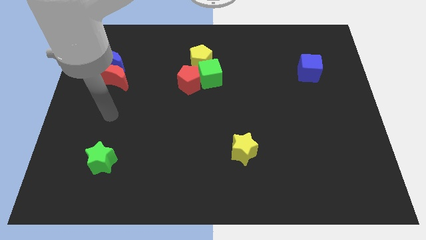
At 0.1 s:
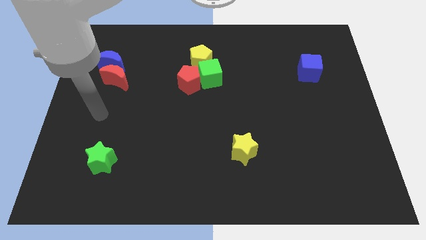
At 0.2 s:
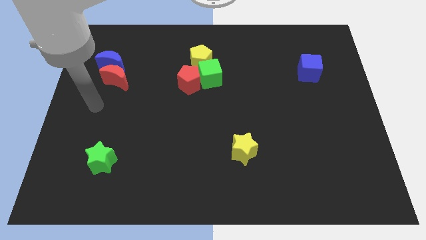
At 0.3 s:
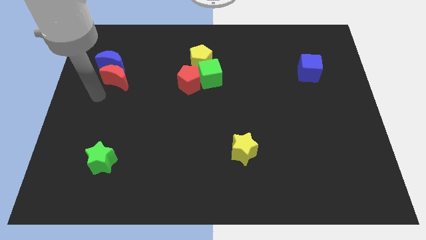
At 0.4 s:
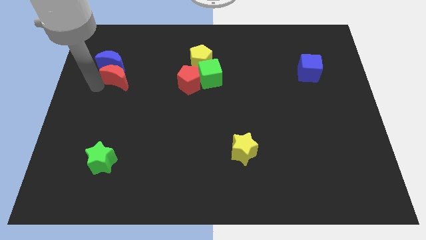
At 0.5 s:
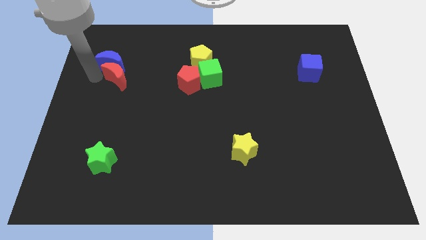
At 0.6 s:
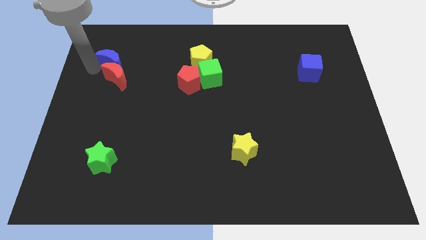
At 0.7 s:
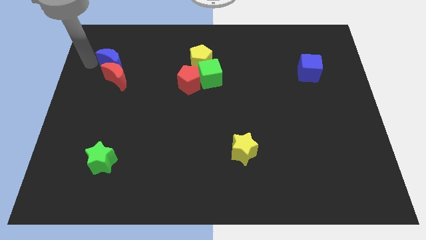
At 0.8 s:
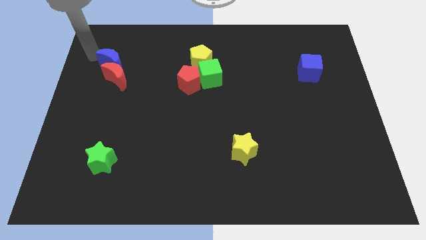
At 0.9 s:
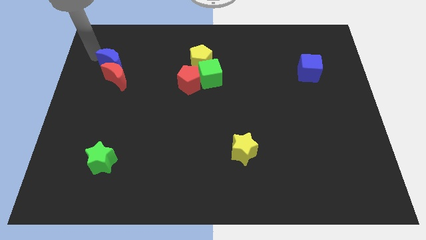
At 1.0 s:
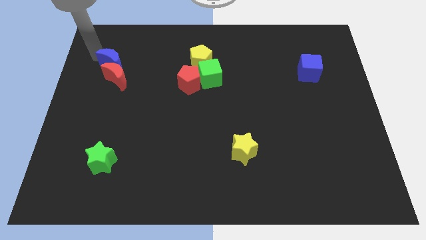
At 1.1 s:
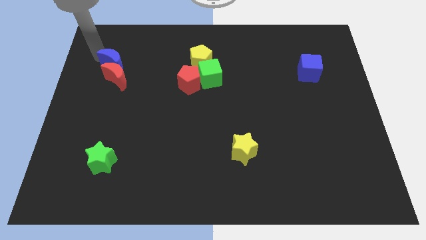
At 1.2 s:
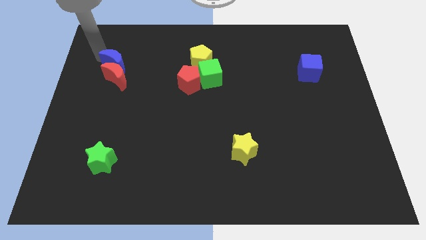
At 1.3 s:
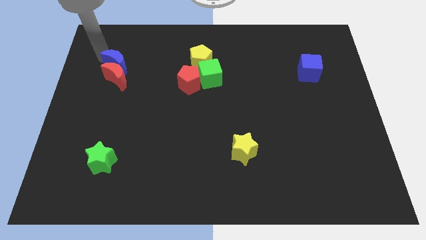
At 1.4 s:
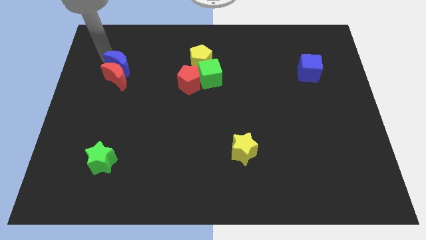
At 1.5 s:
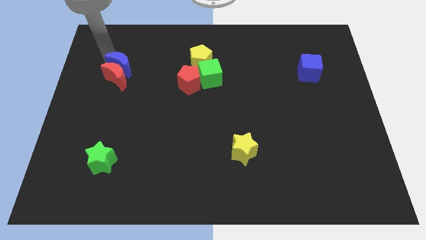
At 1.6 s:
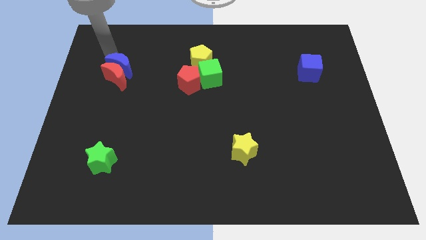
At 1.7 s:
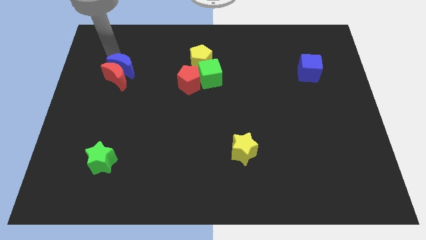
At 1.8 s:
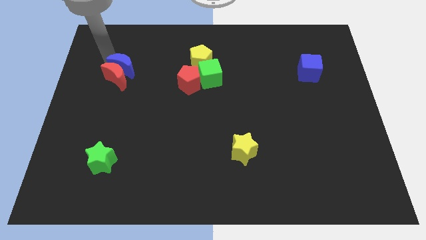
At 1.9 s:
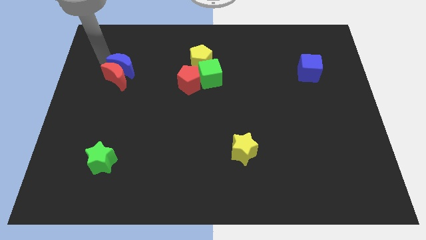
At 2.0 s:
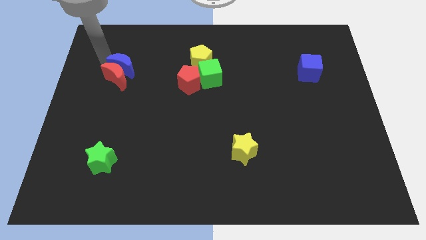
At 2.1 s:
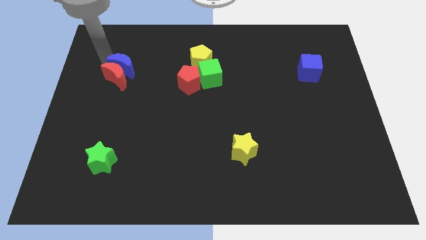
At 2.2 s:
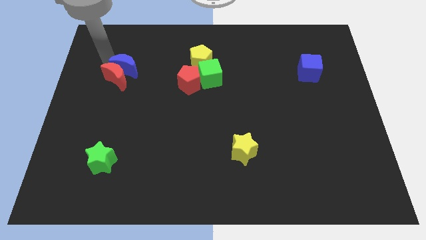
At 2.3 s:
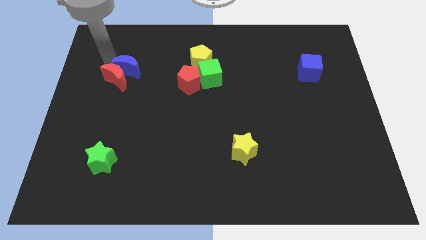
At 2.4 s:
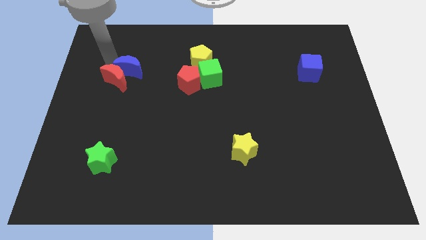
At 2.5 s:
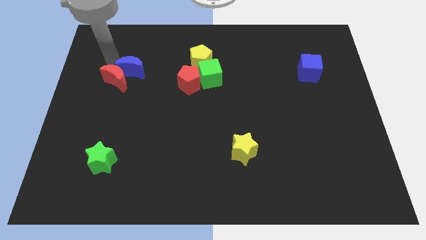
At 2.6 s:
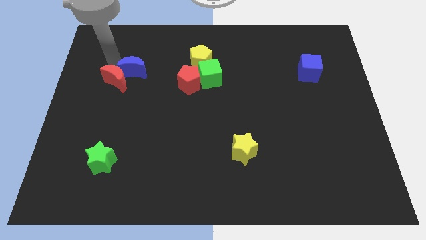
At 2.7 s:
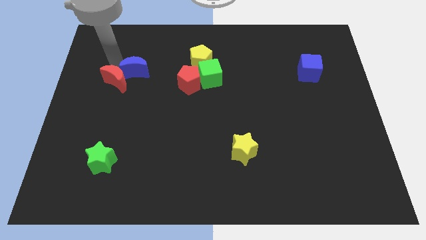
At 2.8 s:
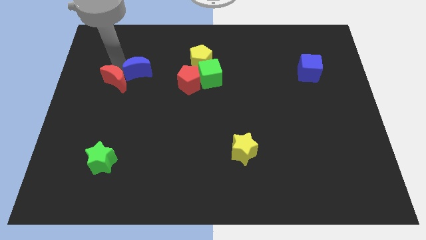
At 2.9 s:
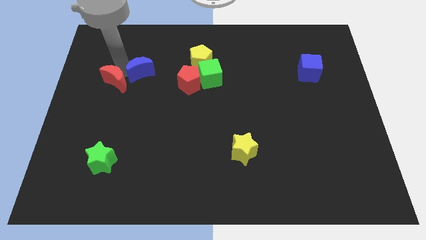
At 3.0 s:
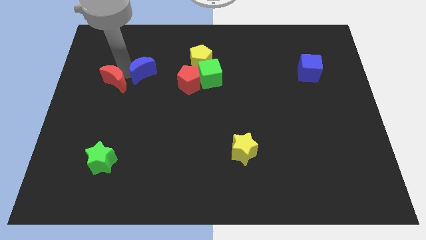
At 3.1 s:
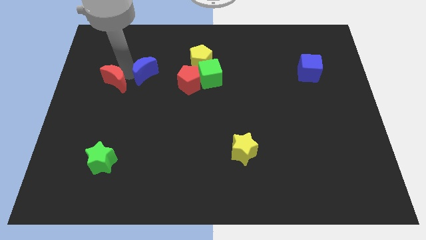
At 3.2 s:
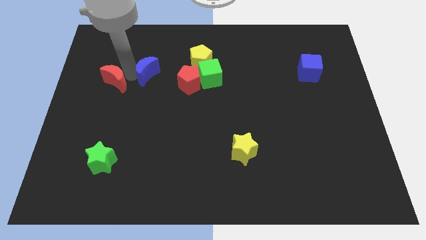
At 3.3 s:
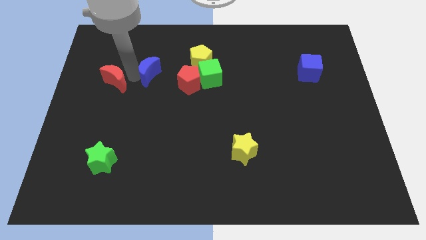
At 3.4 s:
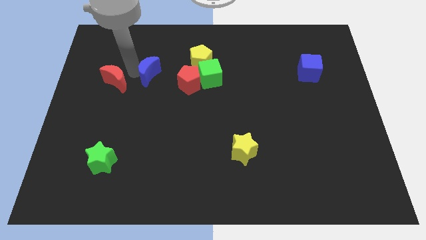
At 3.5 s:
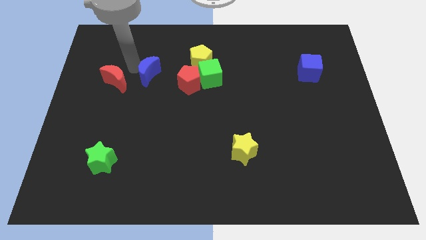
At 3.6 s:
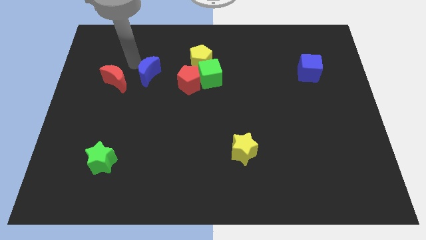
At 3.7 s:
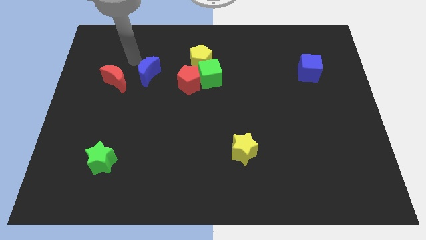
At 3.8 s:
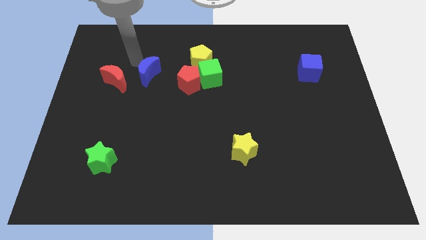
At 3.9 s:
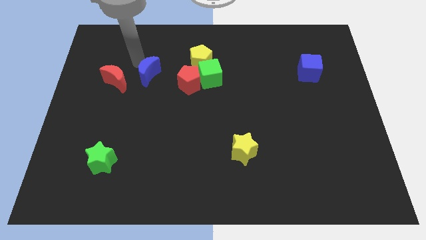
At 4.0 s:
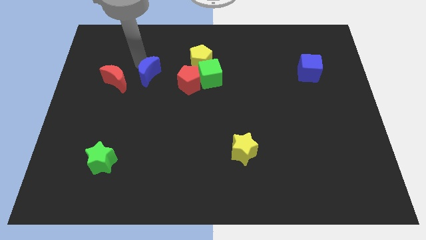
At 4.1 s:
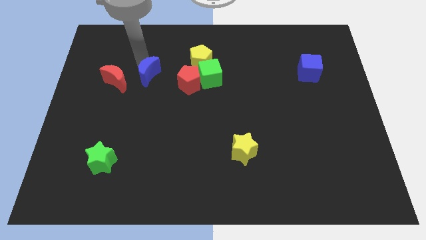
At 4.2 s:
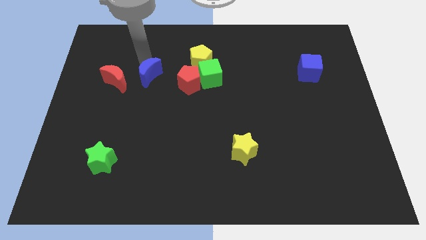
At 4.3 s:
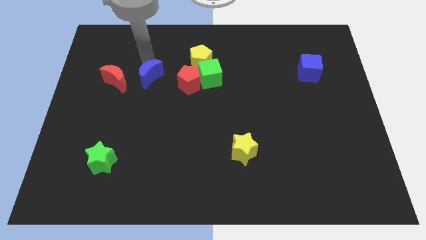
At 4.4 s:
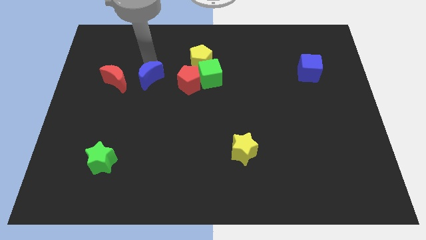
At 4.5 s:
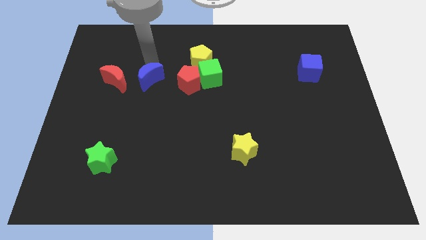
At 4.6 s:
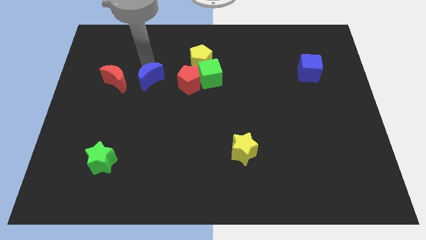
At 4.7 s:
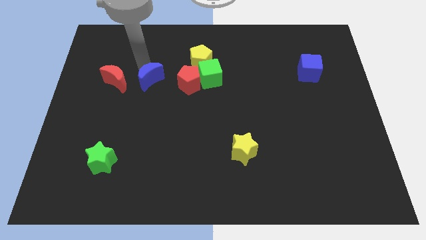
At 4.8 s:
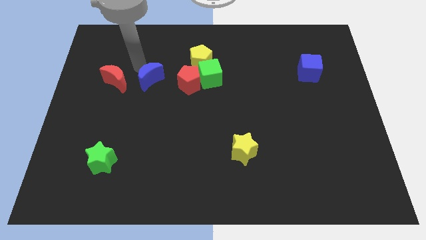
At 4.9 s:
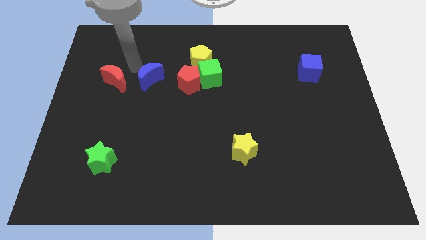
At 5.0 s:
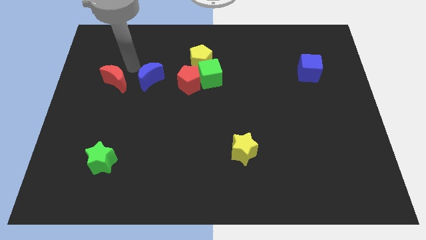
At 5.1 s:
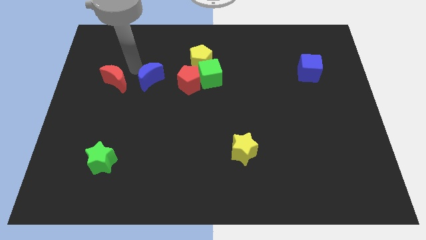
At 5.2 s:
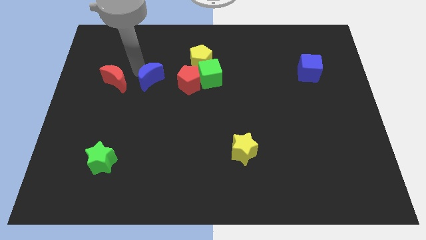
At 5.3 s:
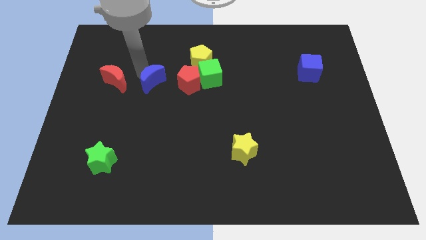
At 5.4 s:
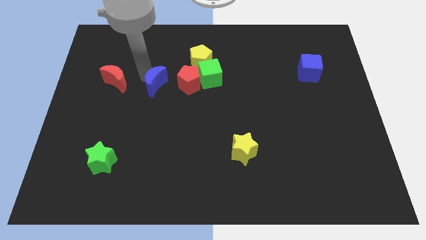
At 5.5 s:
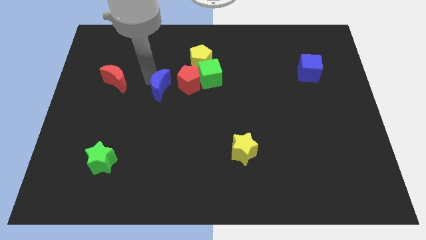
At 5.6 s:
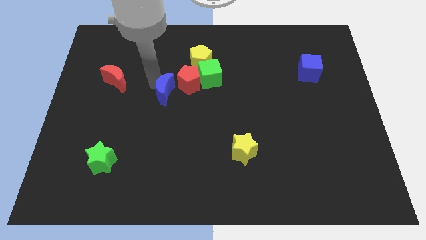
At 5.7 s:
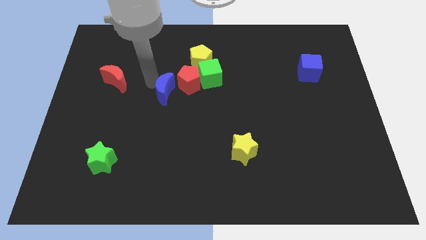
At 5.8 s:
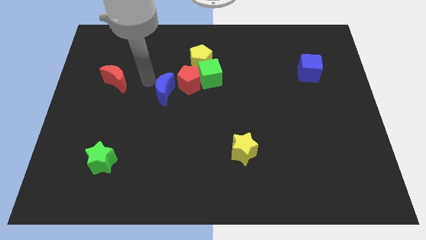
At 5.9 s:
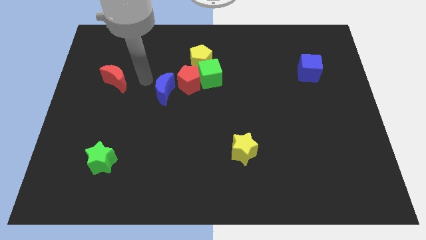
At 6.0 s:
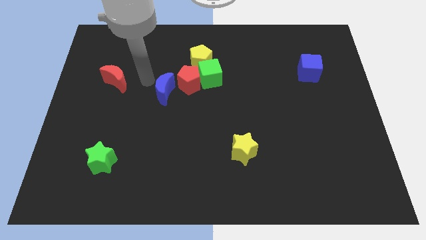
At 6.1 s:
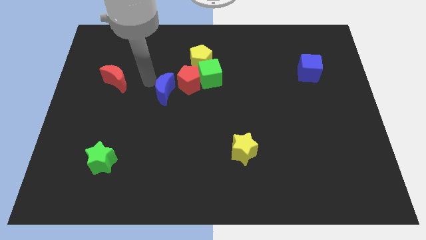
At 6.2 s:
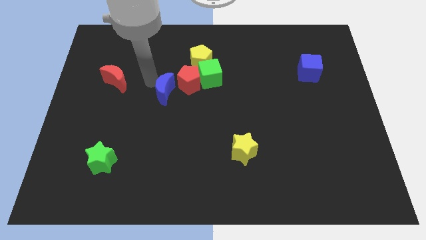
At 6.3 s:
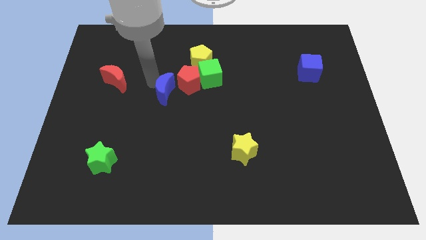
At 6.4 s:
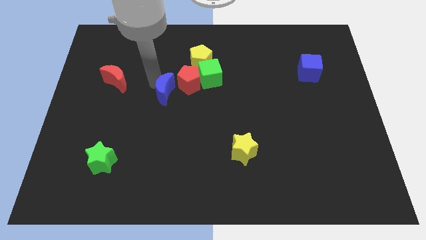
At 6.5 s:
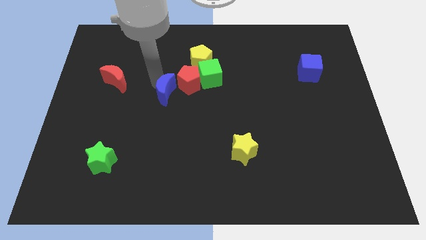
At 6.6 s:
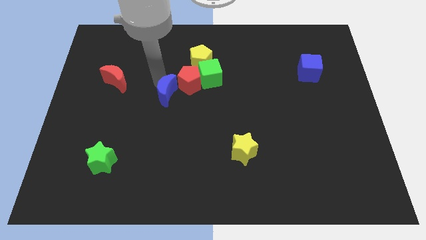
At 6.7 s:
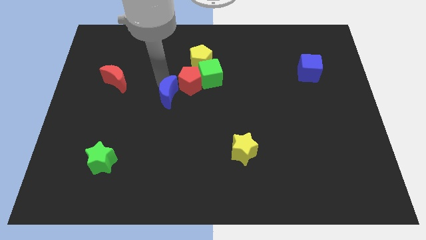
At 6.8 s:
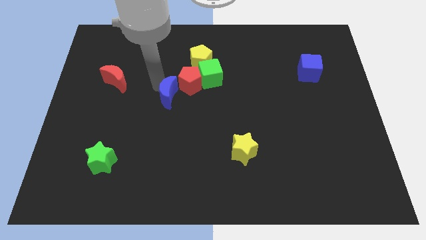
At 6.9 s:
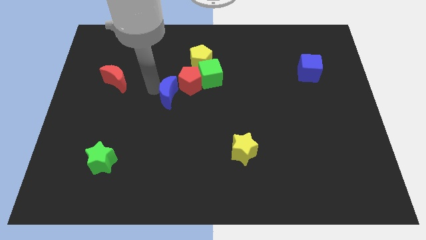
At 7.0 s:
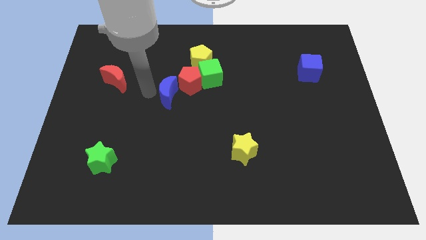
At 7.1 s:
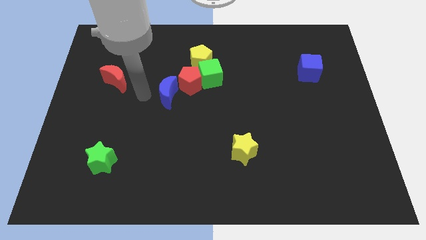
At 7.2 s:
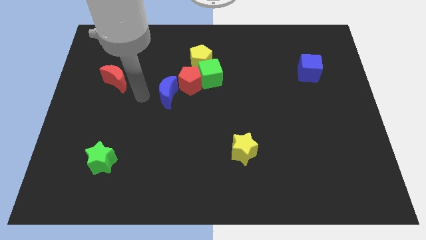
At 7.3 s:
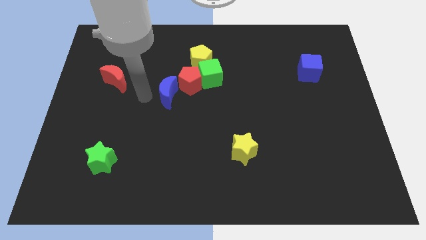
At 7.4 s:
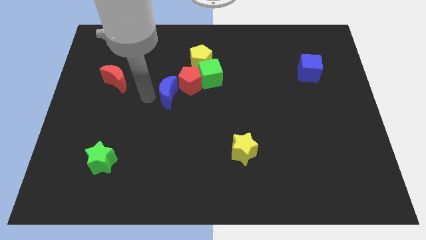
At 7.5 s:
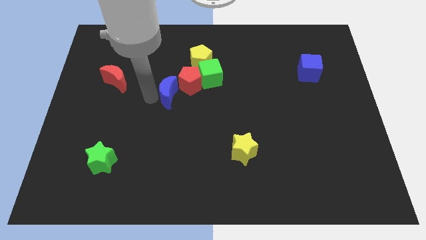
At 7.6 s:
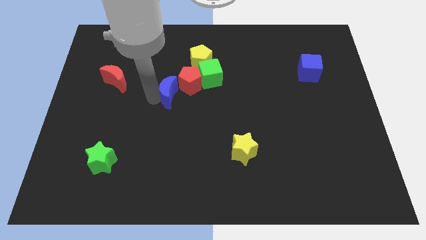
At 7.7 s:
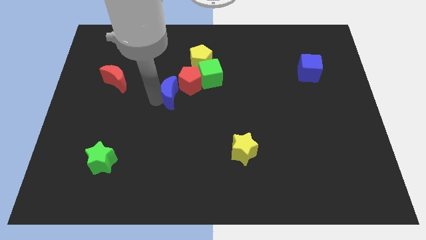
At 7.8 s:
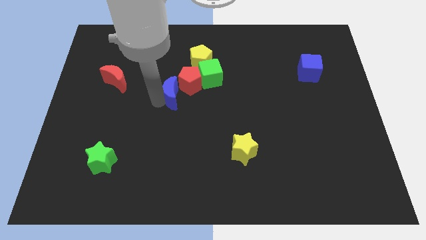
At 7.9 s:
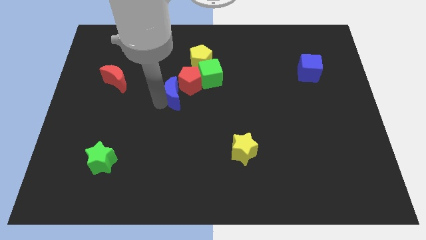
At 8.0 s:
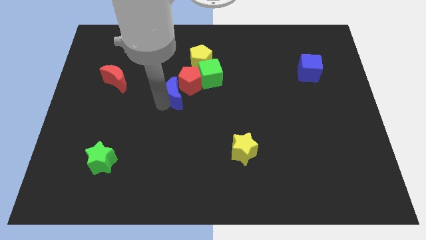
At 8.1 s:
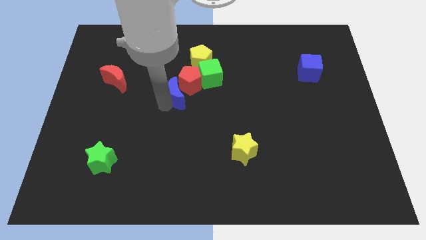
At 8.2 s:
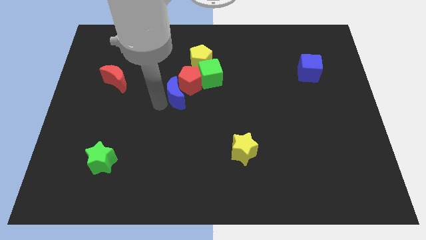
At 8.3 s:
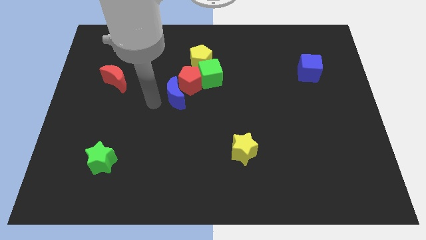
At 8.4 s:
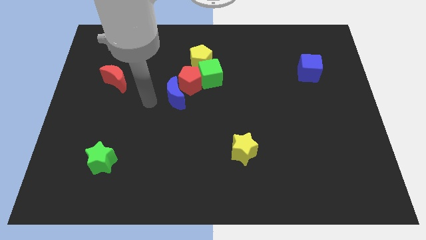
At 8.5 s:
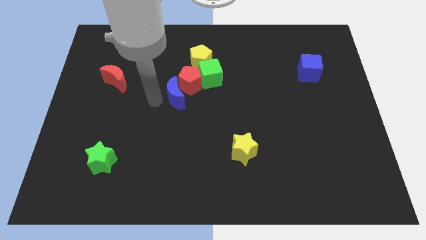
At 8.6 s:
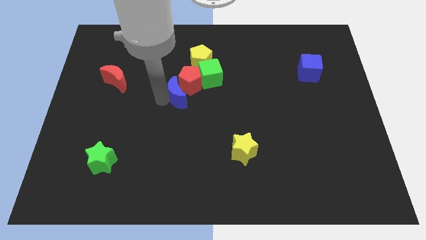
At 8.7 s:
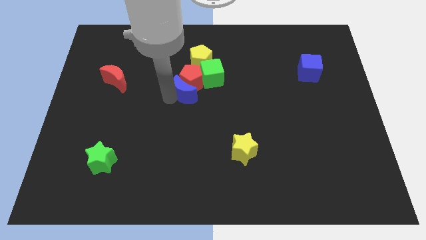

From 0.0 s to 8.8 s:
move the blue moon below the yellow pentagon
